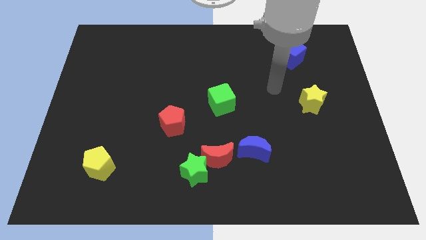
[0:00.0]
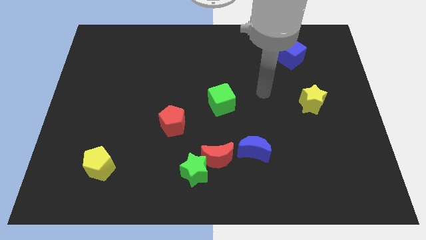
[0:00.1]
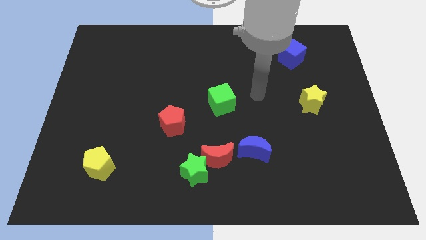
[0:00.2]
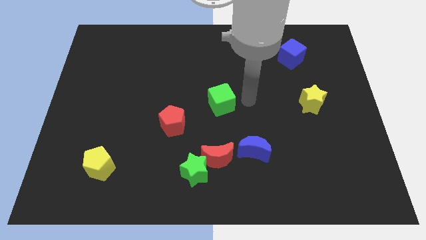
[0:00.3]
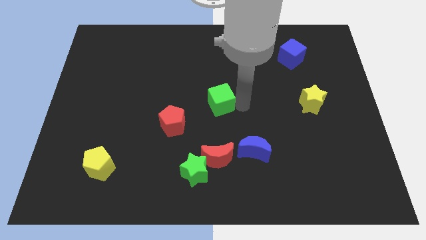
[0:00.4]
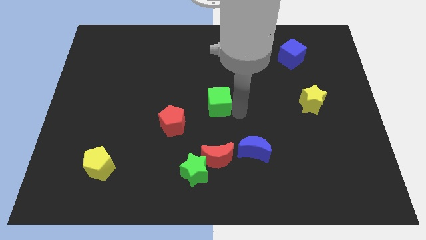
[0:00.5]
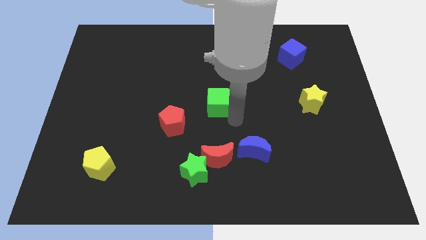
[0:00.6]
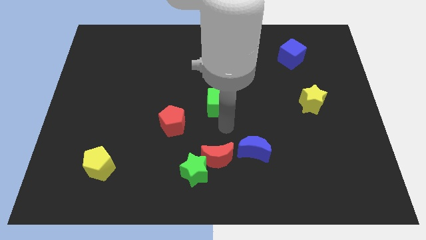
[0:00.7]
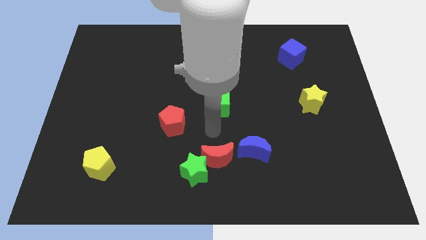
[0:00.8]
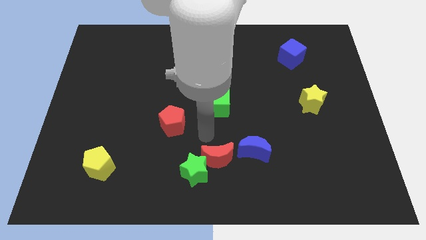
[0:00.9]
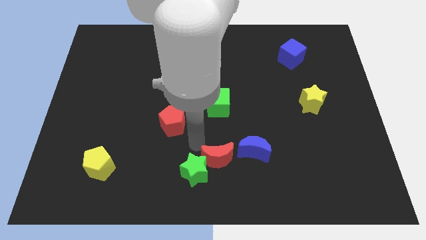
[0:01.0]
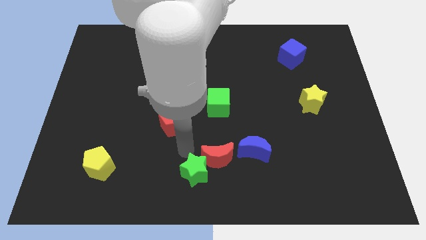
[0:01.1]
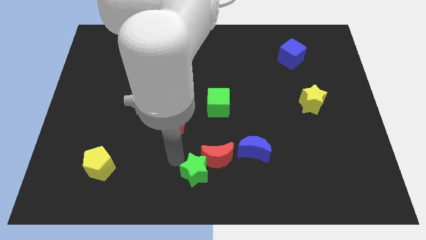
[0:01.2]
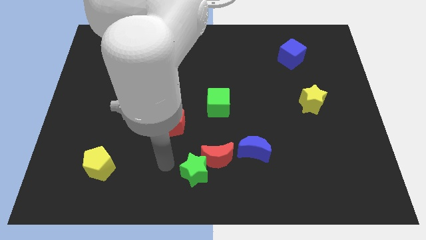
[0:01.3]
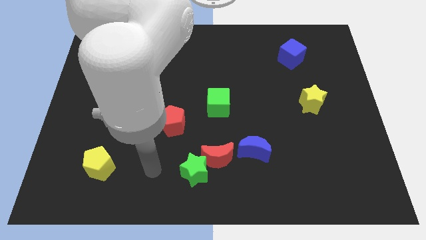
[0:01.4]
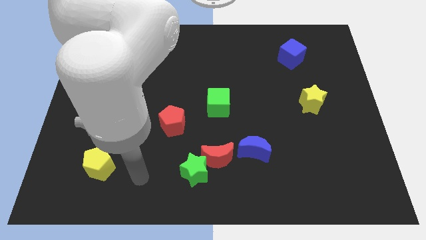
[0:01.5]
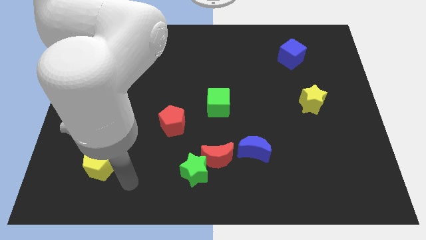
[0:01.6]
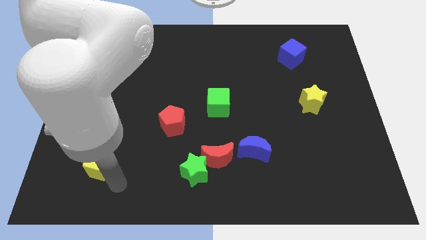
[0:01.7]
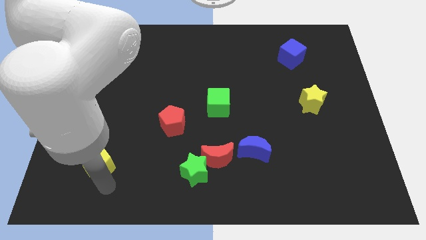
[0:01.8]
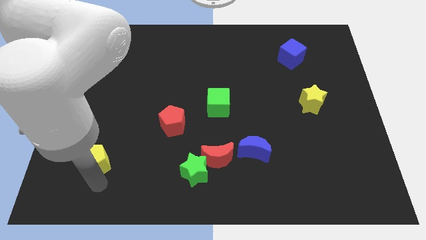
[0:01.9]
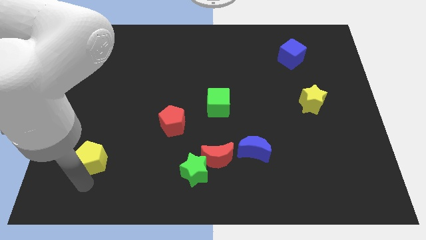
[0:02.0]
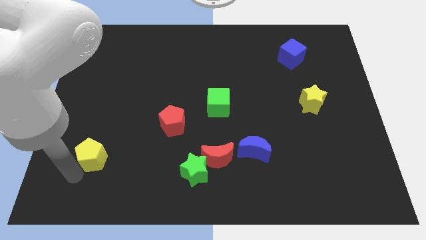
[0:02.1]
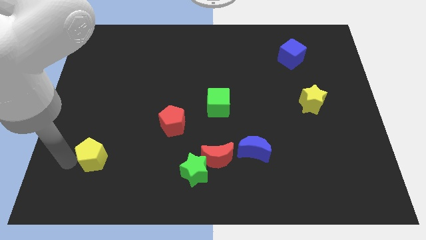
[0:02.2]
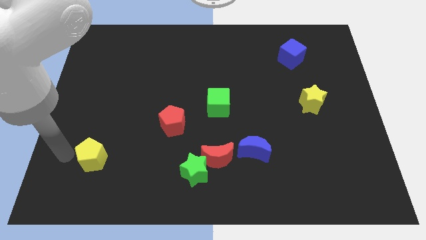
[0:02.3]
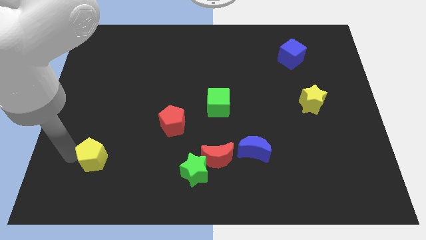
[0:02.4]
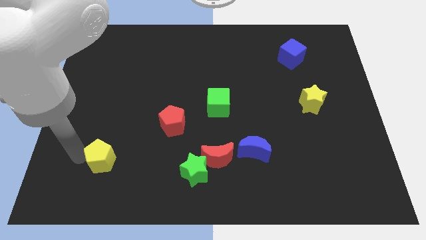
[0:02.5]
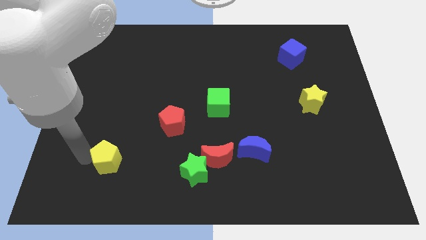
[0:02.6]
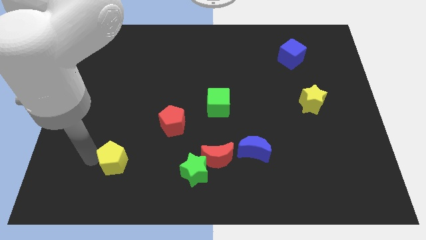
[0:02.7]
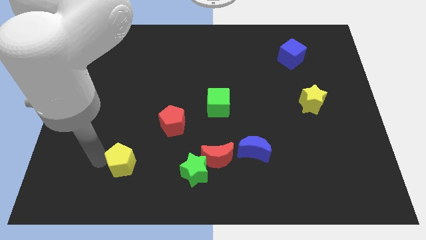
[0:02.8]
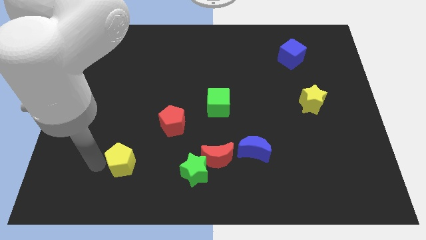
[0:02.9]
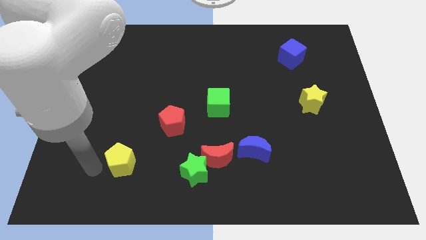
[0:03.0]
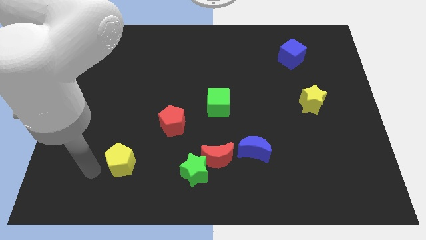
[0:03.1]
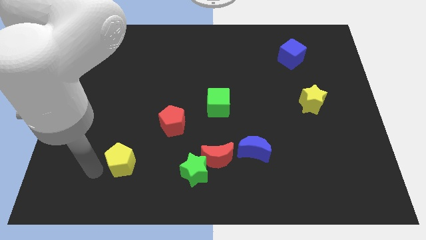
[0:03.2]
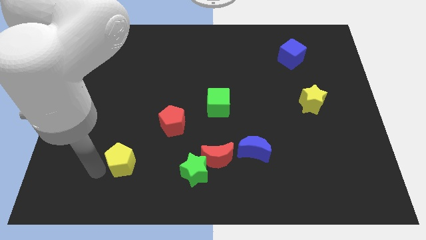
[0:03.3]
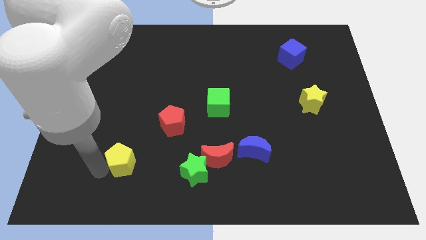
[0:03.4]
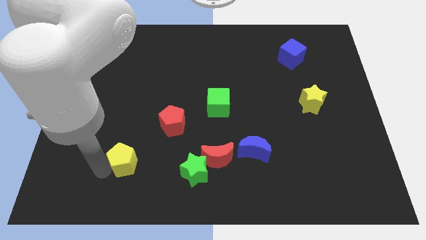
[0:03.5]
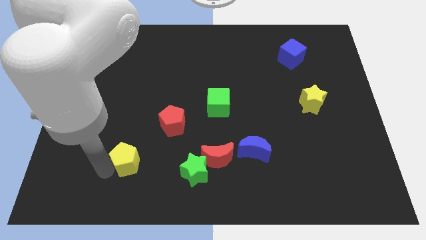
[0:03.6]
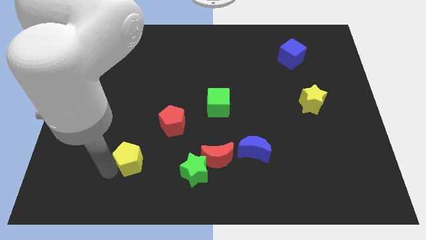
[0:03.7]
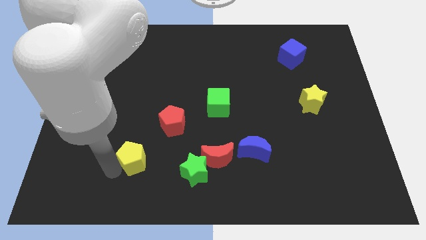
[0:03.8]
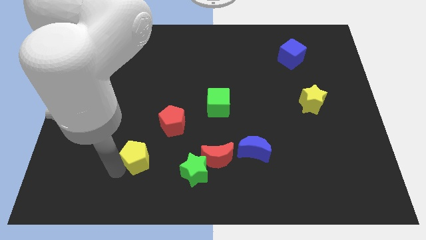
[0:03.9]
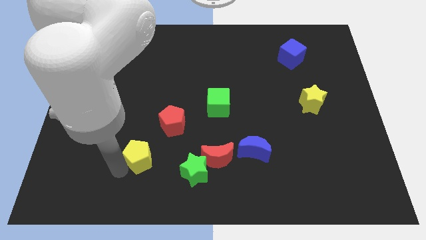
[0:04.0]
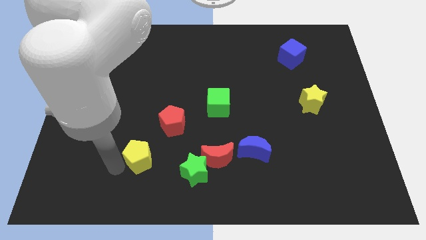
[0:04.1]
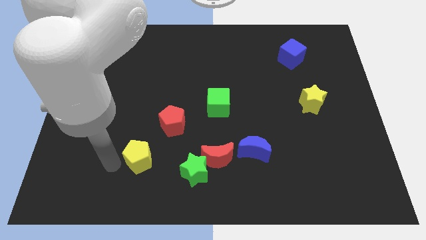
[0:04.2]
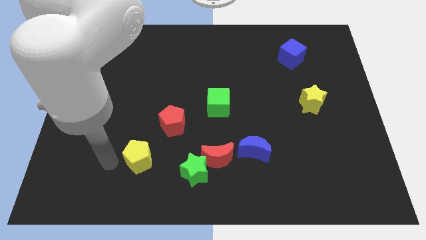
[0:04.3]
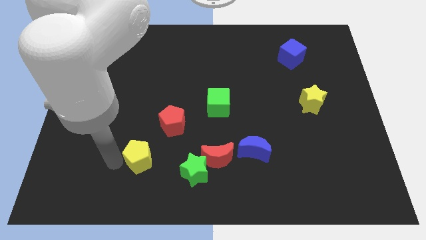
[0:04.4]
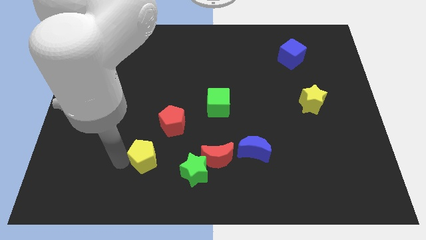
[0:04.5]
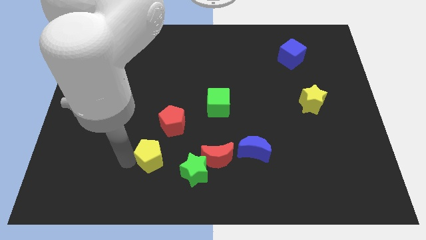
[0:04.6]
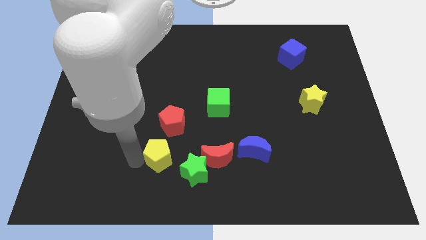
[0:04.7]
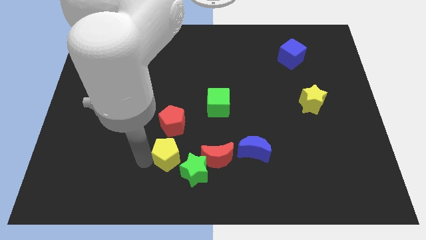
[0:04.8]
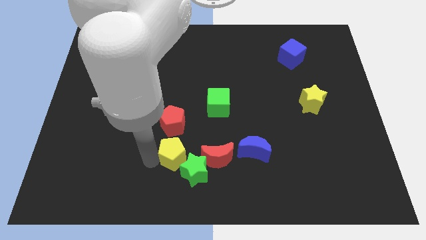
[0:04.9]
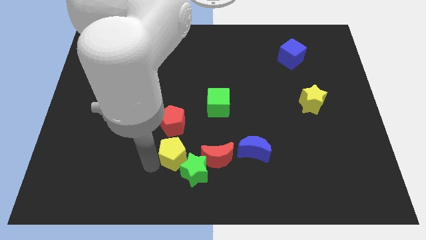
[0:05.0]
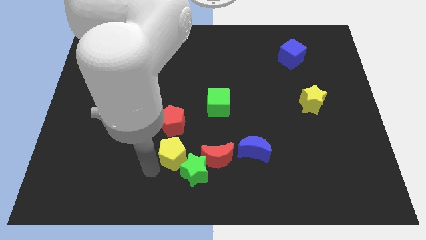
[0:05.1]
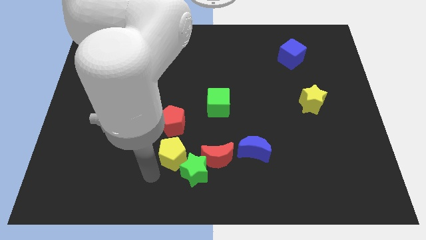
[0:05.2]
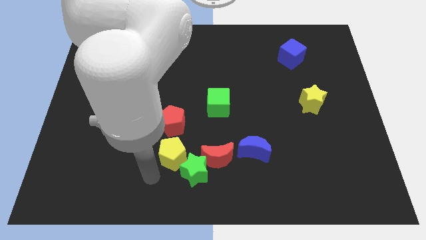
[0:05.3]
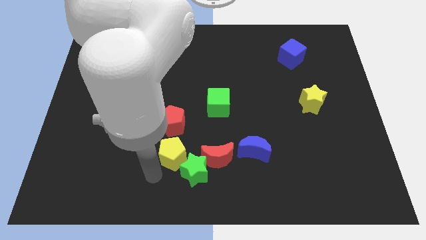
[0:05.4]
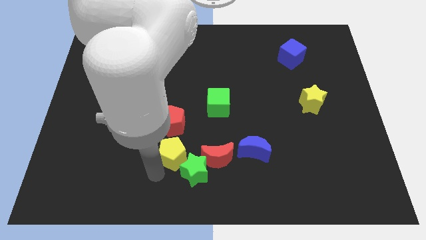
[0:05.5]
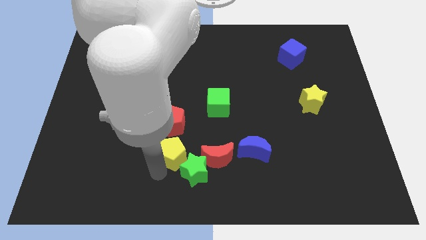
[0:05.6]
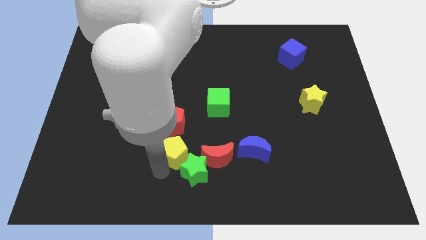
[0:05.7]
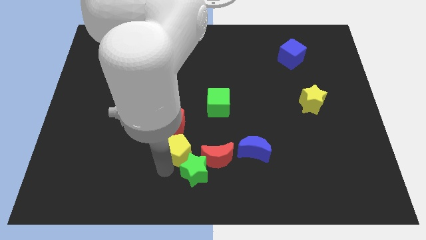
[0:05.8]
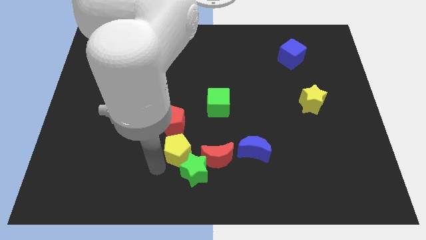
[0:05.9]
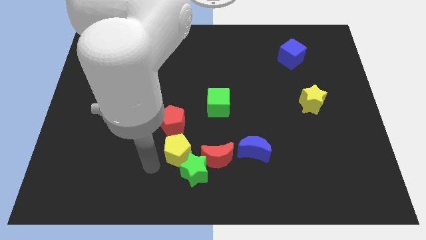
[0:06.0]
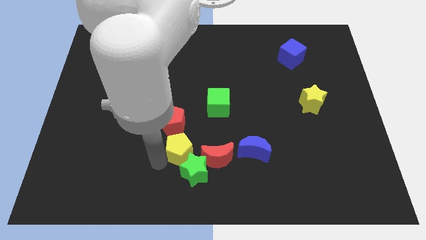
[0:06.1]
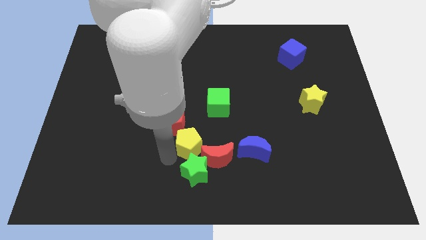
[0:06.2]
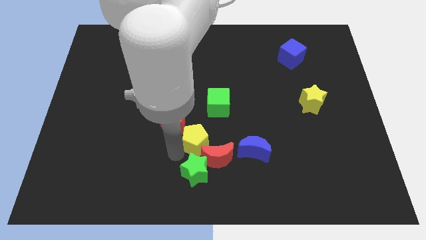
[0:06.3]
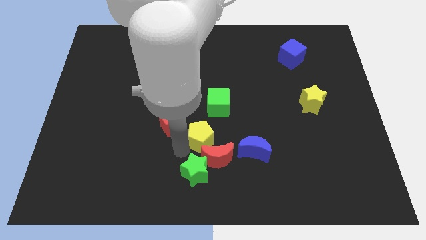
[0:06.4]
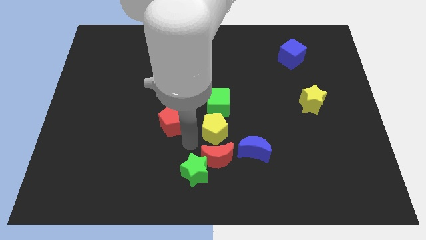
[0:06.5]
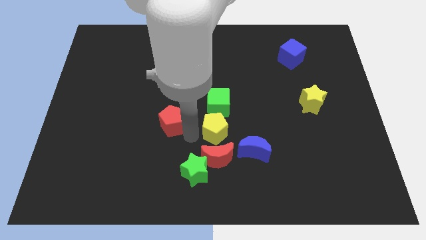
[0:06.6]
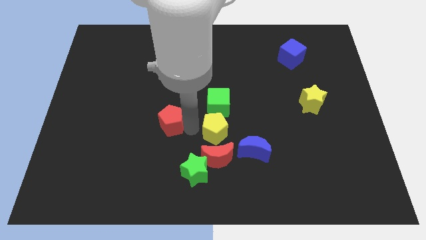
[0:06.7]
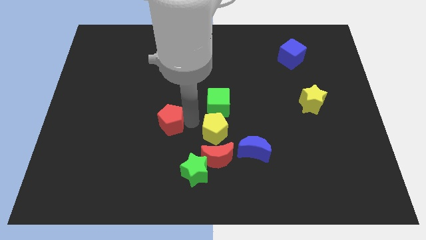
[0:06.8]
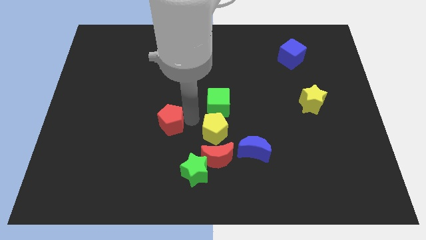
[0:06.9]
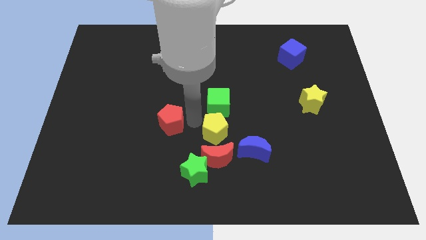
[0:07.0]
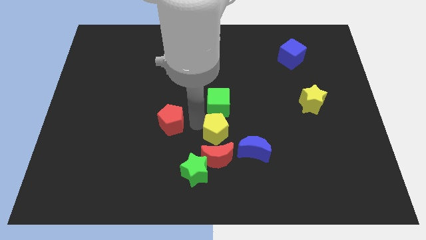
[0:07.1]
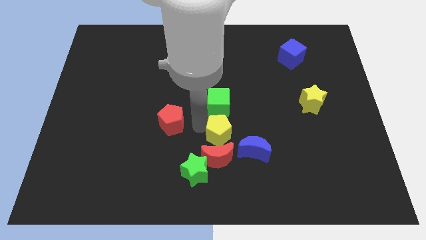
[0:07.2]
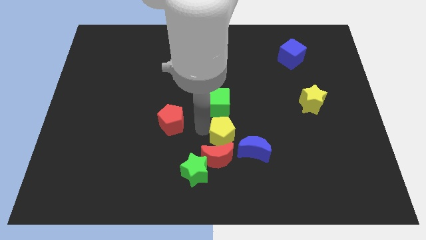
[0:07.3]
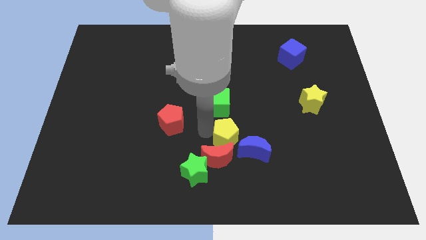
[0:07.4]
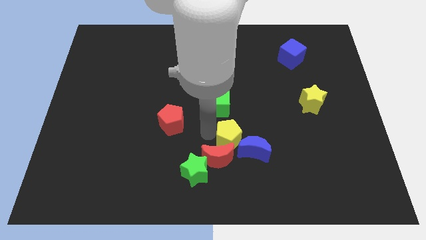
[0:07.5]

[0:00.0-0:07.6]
slide the yellow pentagon next to the blue moon
